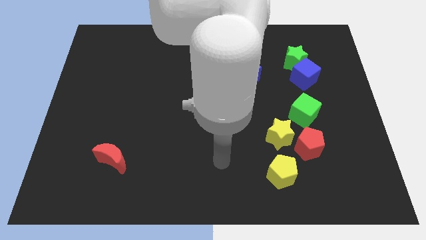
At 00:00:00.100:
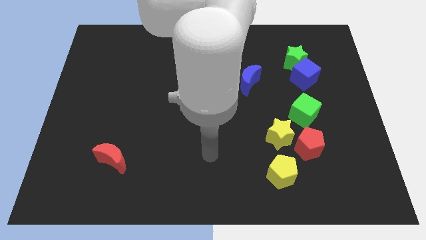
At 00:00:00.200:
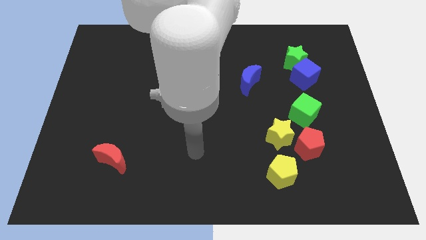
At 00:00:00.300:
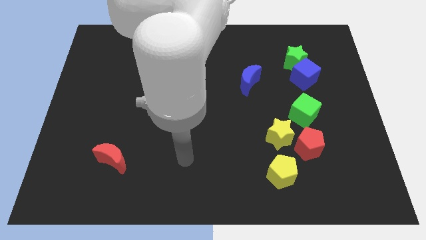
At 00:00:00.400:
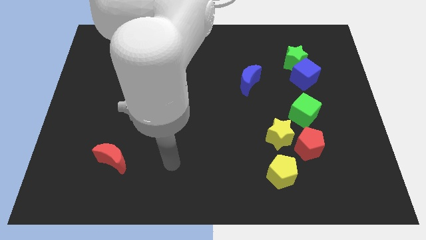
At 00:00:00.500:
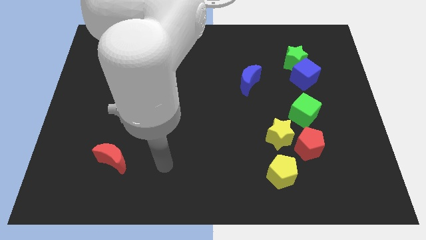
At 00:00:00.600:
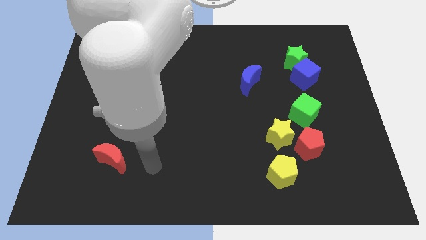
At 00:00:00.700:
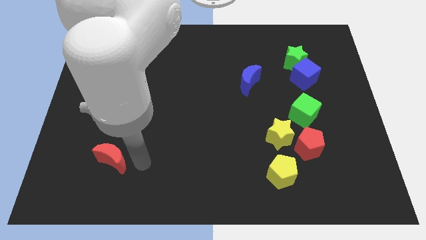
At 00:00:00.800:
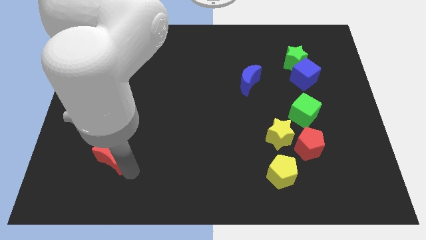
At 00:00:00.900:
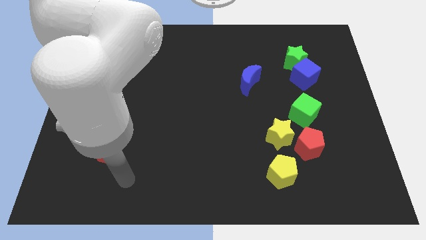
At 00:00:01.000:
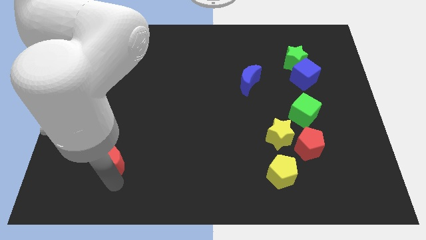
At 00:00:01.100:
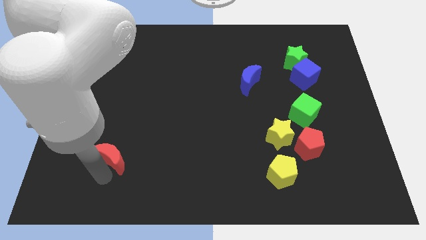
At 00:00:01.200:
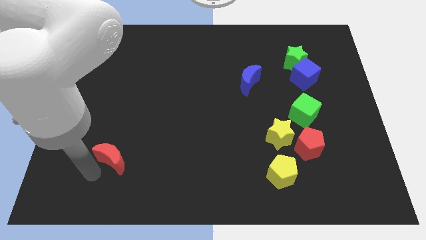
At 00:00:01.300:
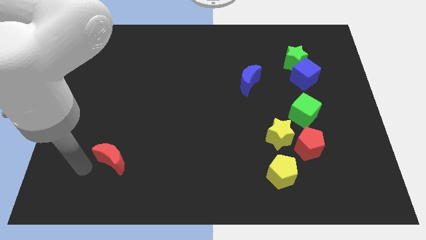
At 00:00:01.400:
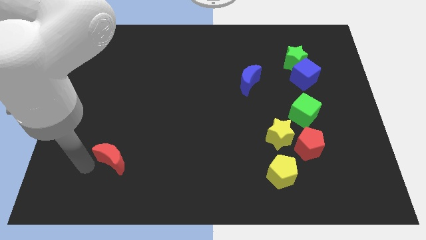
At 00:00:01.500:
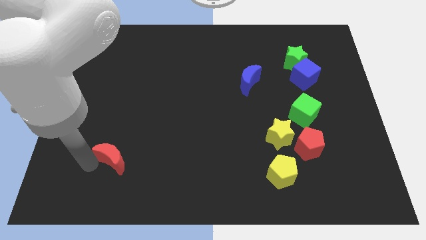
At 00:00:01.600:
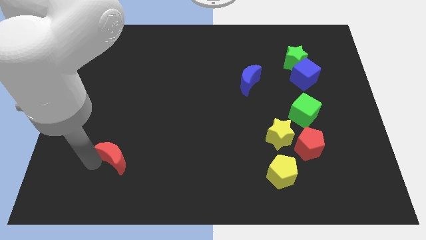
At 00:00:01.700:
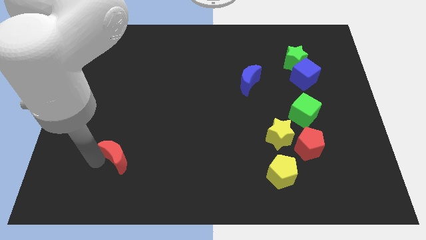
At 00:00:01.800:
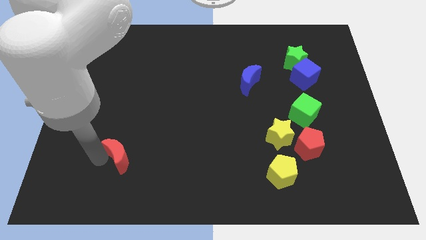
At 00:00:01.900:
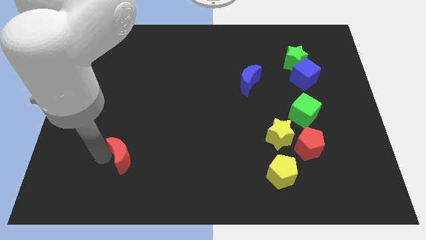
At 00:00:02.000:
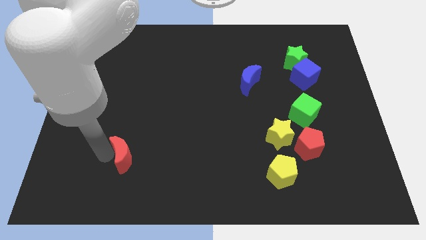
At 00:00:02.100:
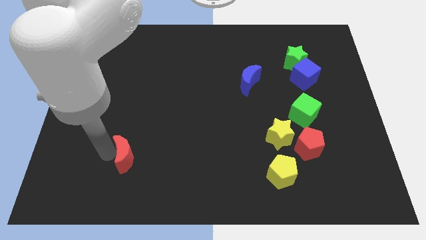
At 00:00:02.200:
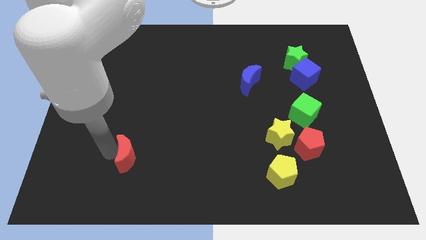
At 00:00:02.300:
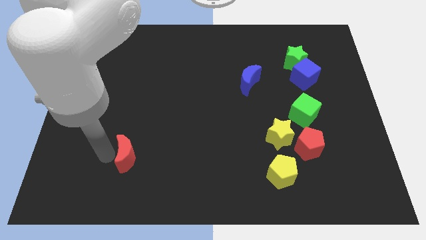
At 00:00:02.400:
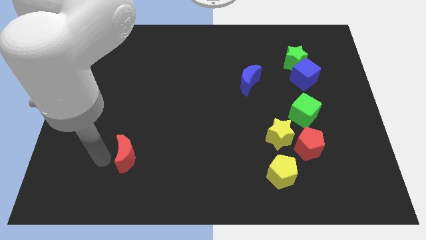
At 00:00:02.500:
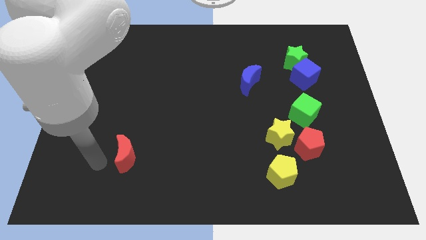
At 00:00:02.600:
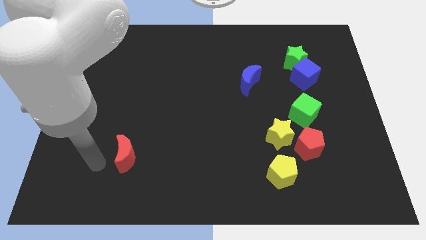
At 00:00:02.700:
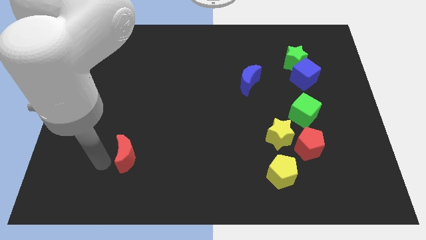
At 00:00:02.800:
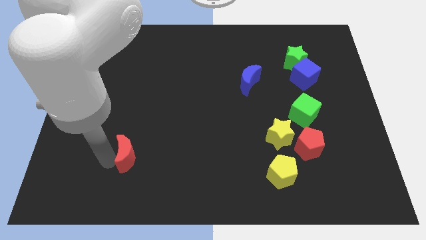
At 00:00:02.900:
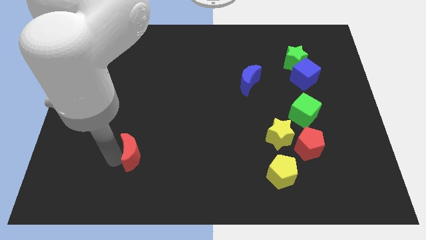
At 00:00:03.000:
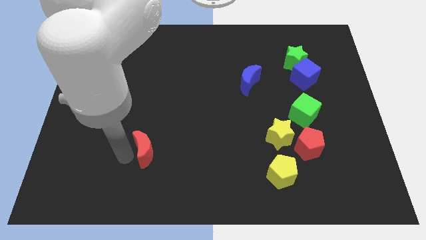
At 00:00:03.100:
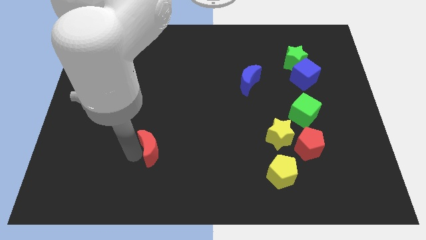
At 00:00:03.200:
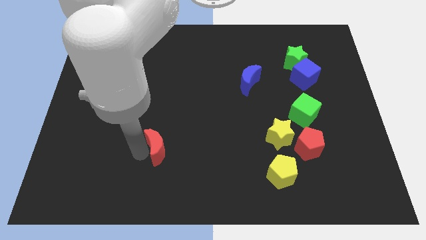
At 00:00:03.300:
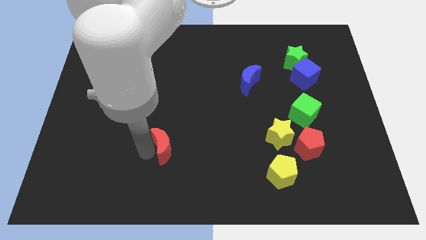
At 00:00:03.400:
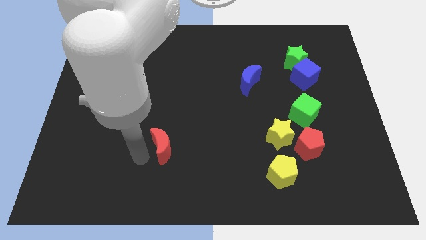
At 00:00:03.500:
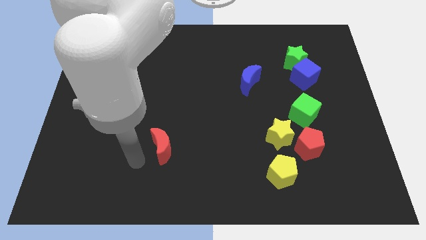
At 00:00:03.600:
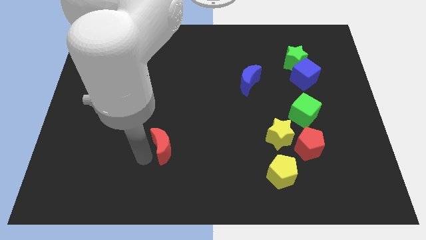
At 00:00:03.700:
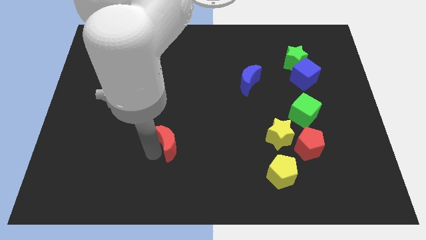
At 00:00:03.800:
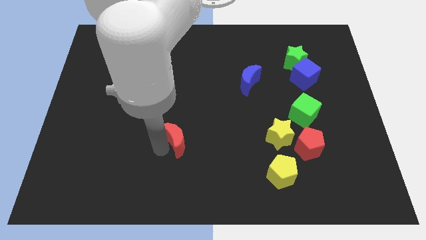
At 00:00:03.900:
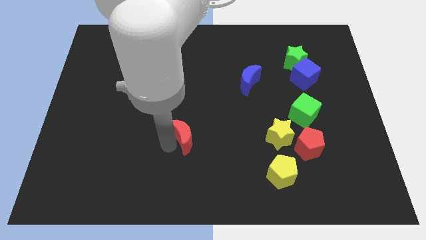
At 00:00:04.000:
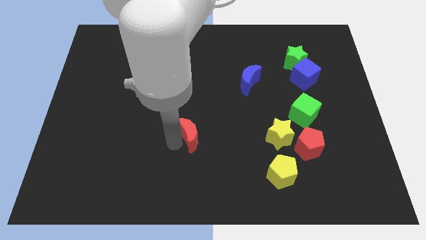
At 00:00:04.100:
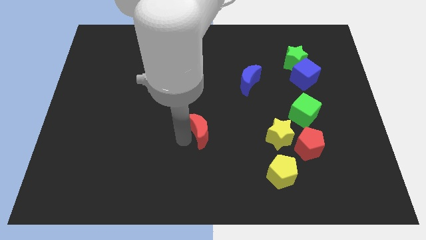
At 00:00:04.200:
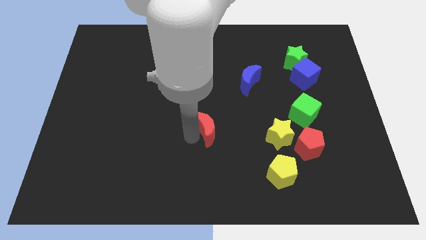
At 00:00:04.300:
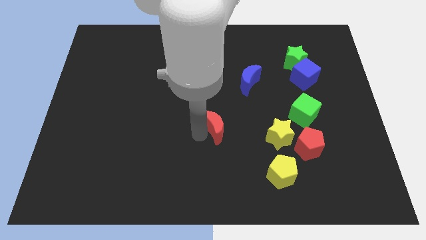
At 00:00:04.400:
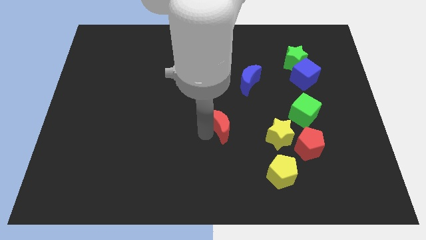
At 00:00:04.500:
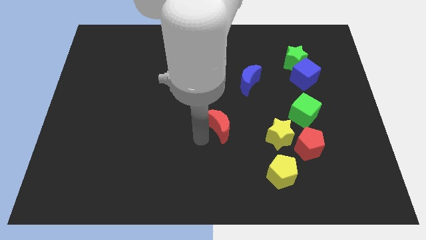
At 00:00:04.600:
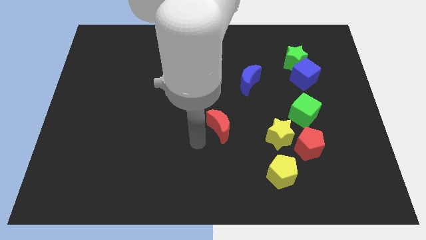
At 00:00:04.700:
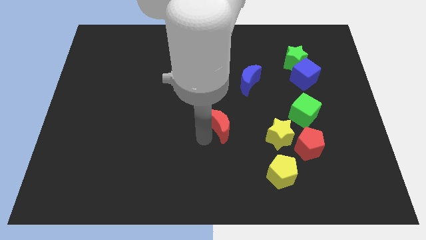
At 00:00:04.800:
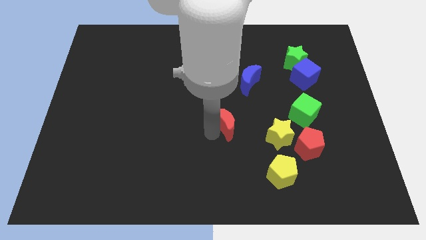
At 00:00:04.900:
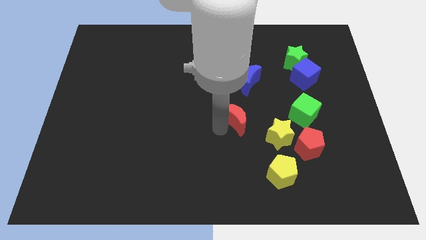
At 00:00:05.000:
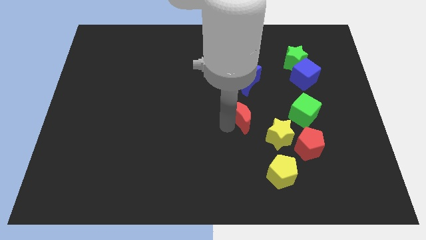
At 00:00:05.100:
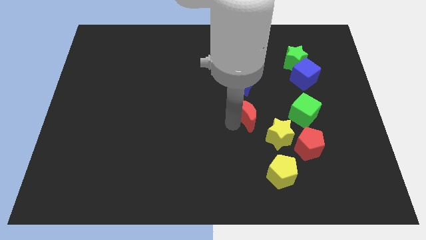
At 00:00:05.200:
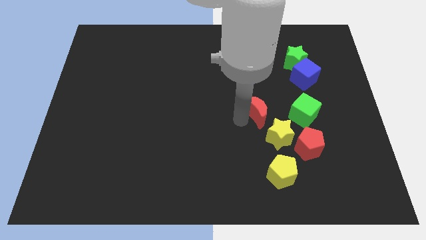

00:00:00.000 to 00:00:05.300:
move the red moon to the top of the yellow star
